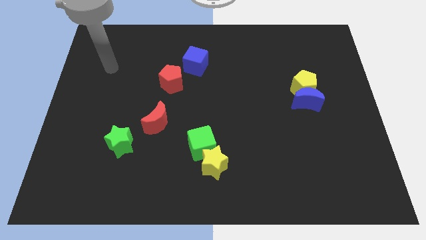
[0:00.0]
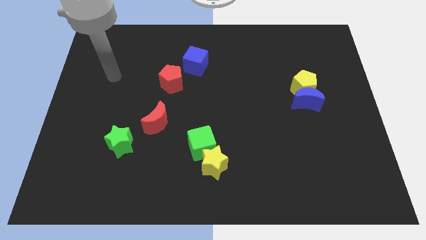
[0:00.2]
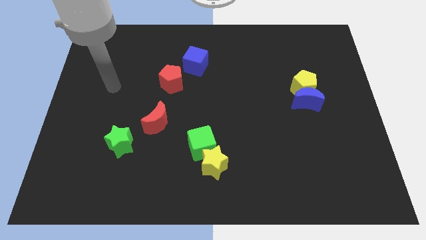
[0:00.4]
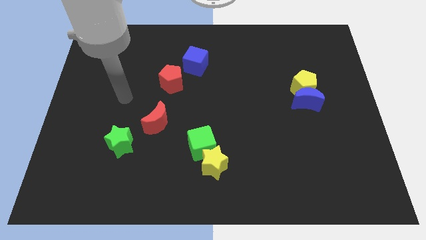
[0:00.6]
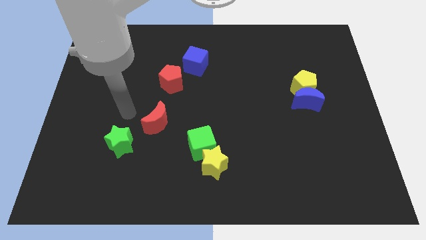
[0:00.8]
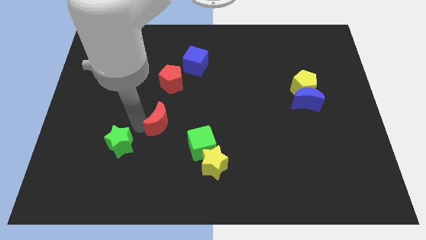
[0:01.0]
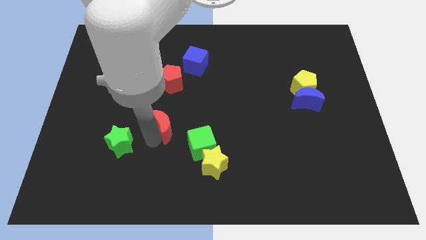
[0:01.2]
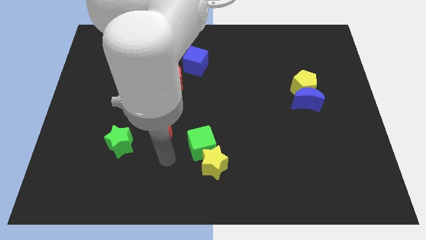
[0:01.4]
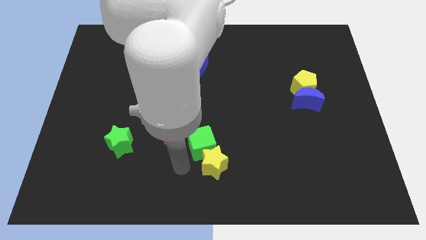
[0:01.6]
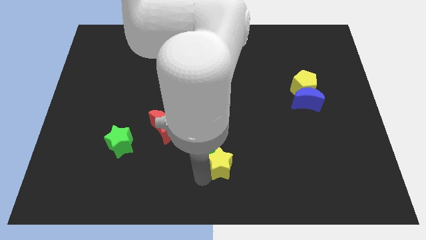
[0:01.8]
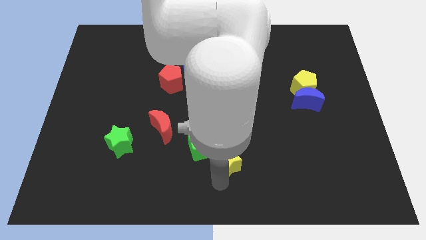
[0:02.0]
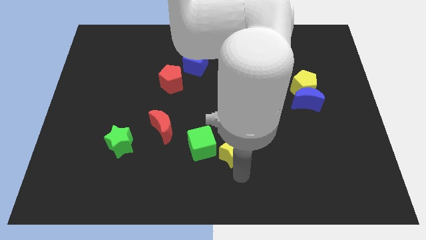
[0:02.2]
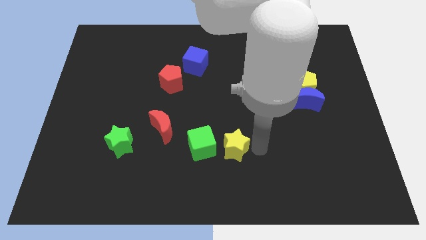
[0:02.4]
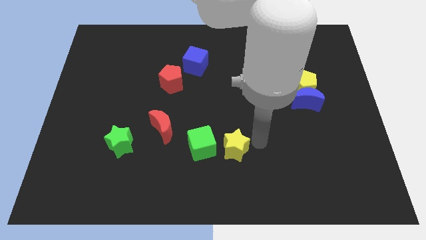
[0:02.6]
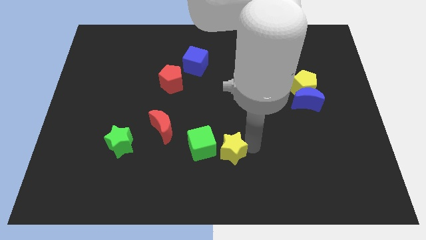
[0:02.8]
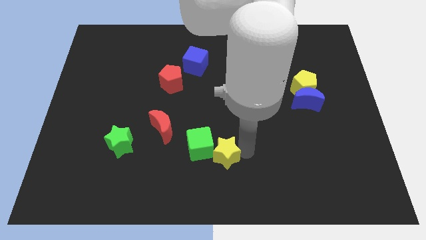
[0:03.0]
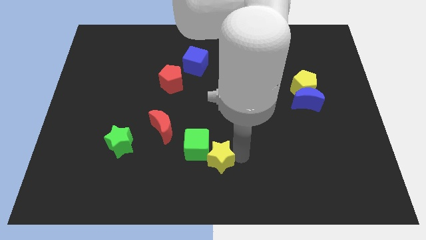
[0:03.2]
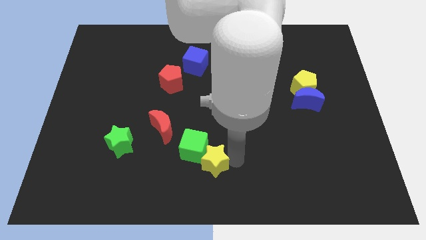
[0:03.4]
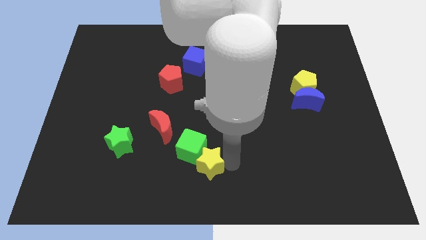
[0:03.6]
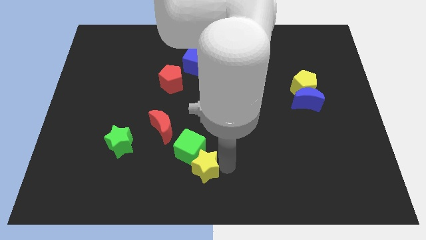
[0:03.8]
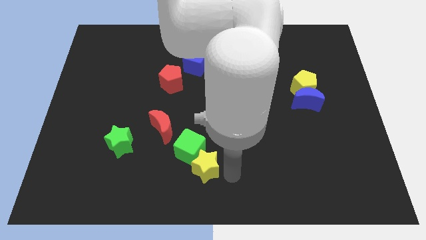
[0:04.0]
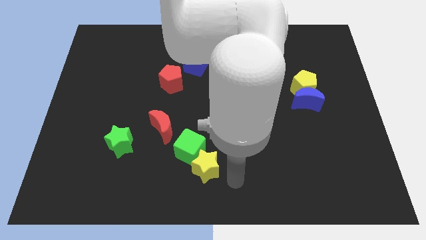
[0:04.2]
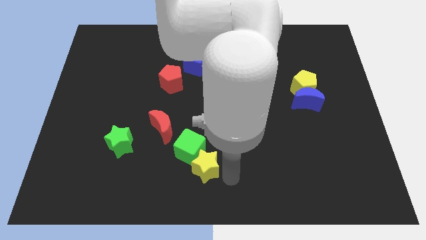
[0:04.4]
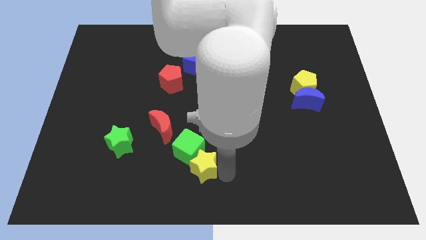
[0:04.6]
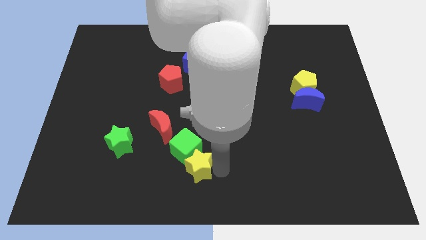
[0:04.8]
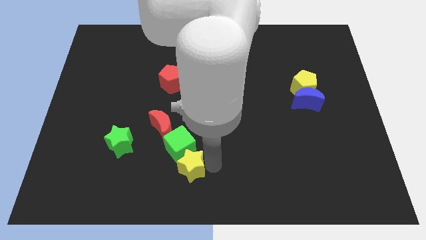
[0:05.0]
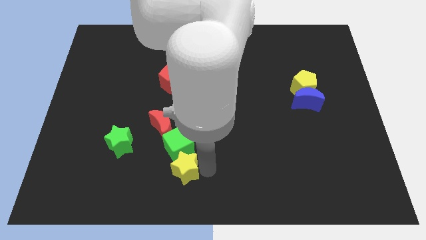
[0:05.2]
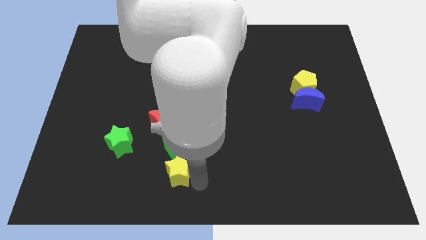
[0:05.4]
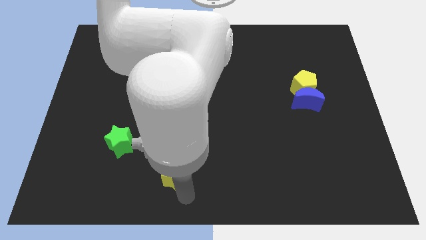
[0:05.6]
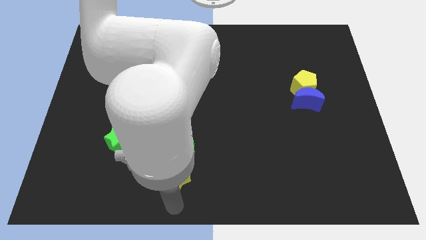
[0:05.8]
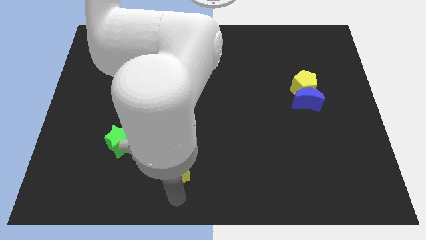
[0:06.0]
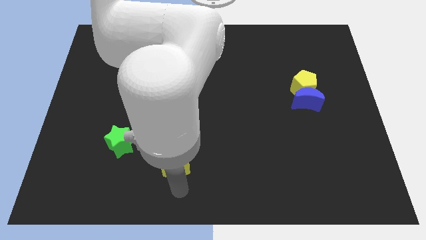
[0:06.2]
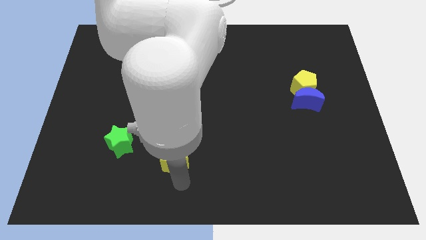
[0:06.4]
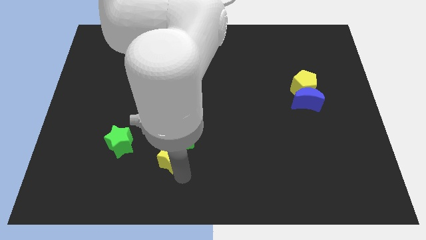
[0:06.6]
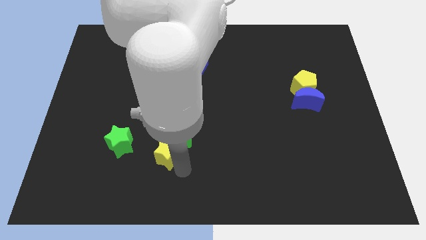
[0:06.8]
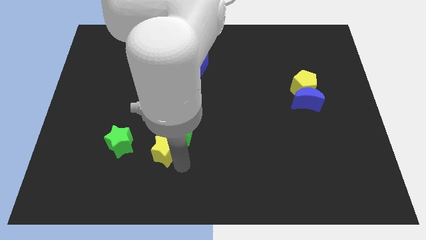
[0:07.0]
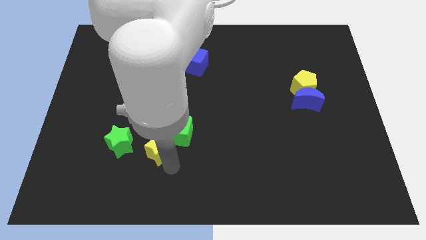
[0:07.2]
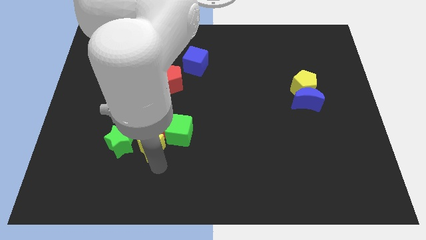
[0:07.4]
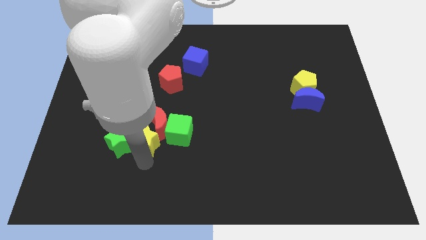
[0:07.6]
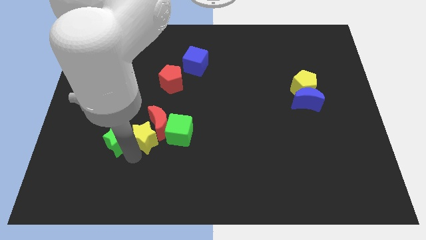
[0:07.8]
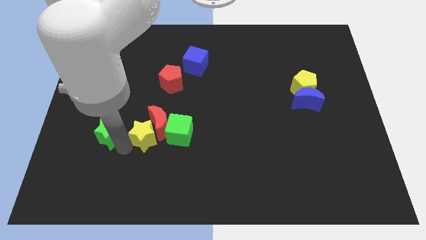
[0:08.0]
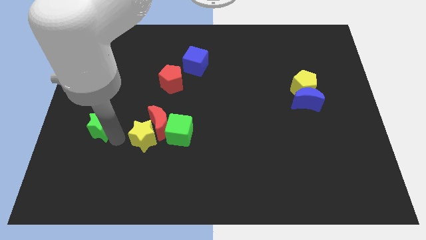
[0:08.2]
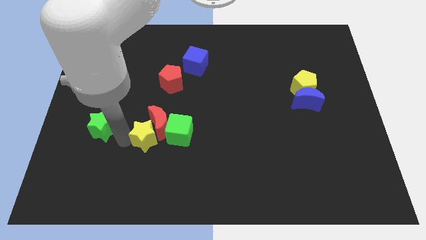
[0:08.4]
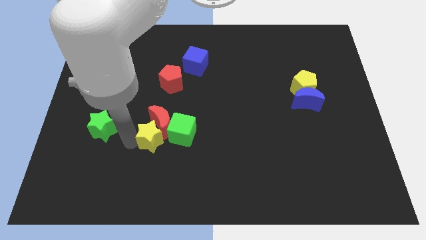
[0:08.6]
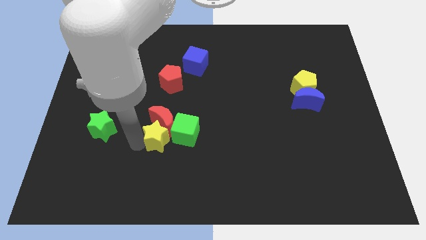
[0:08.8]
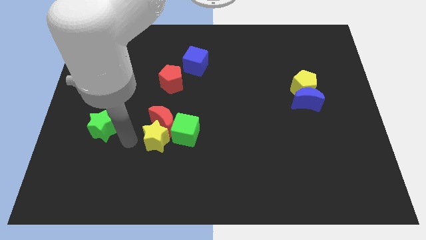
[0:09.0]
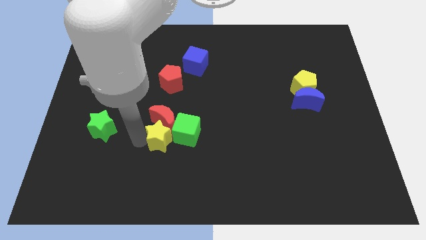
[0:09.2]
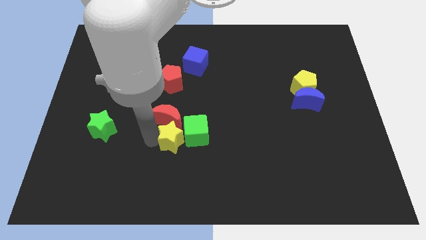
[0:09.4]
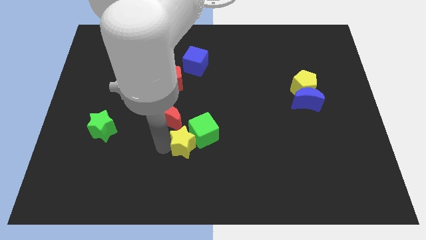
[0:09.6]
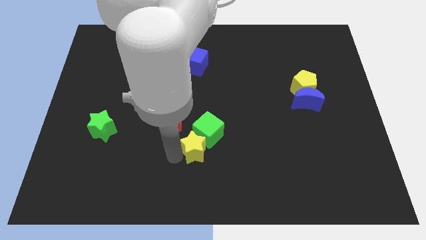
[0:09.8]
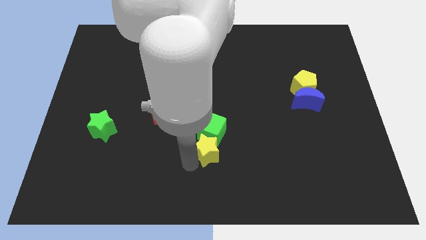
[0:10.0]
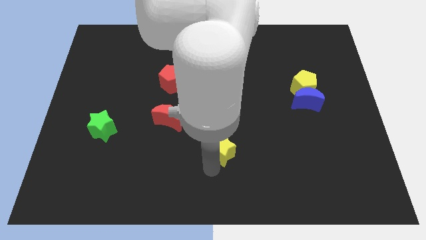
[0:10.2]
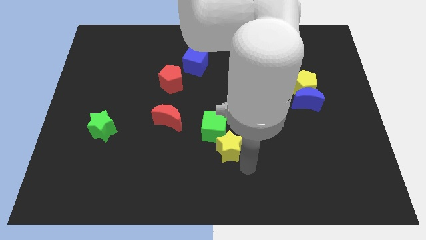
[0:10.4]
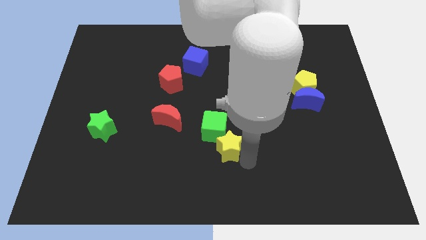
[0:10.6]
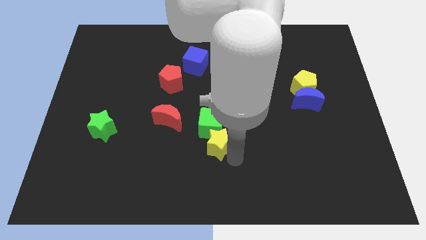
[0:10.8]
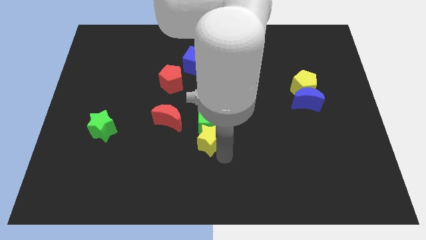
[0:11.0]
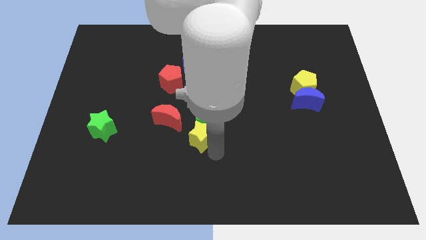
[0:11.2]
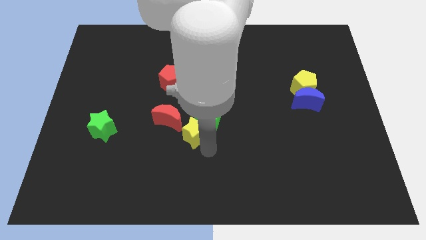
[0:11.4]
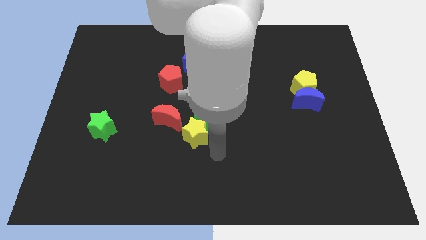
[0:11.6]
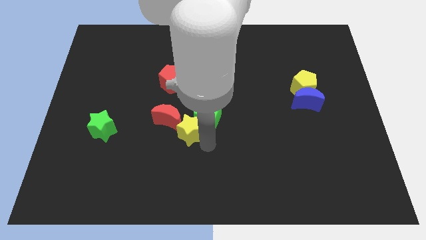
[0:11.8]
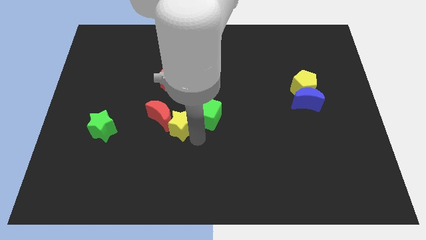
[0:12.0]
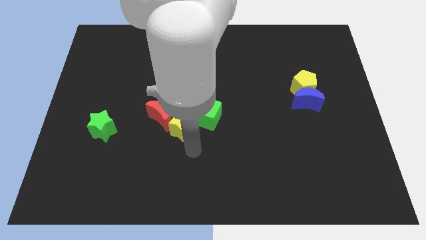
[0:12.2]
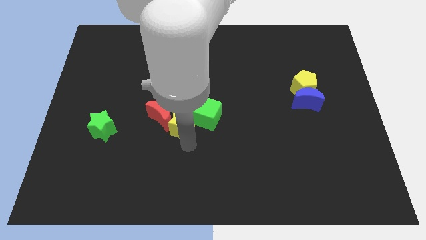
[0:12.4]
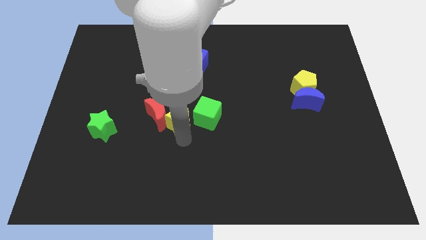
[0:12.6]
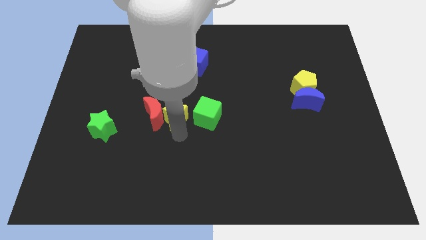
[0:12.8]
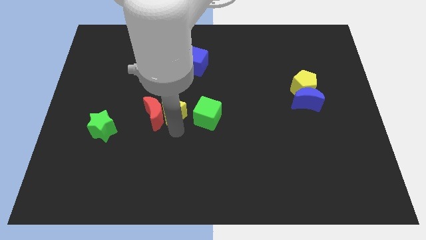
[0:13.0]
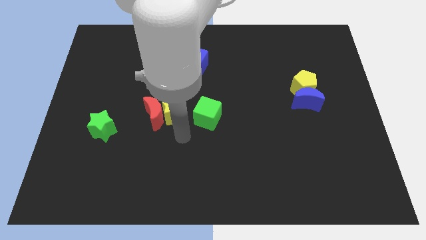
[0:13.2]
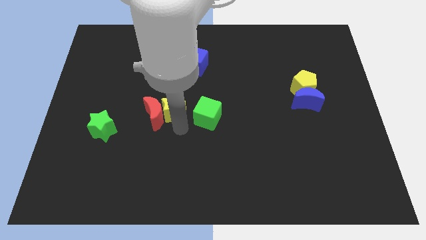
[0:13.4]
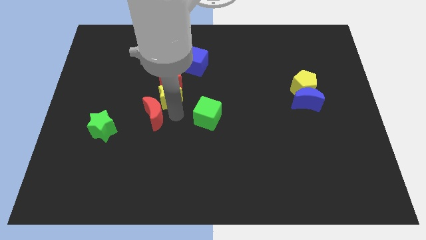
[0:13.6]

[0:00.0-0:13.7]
slide the yellow star towards the red pentagon

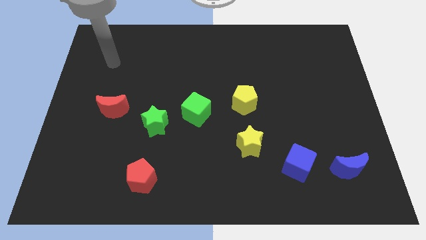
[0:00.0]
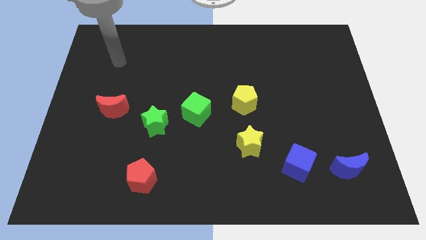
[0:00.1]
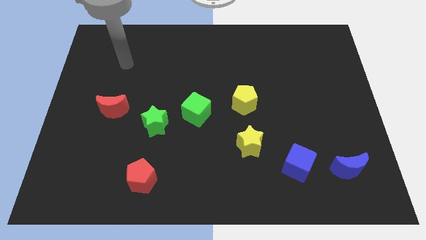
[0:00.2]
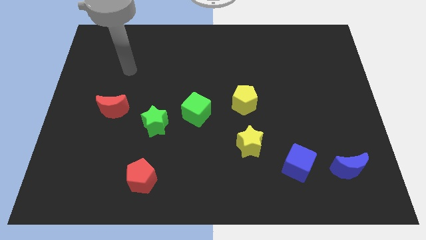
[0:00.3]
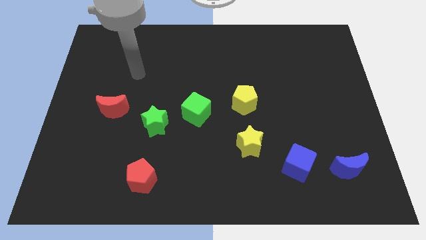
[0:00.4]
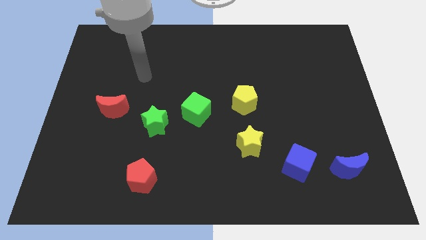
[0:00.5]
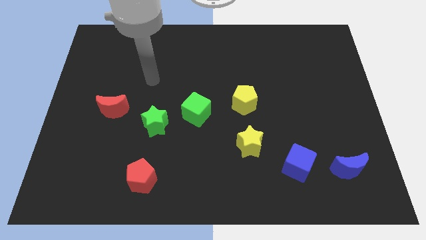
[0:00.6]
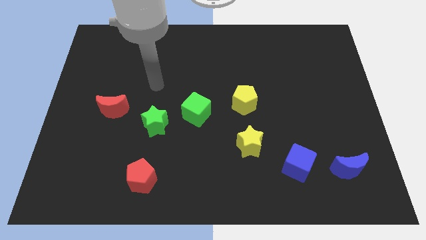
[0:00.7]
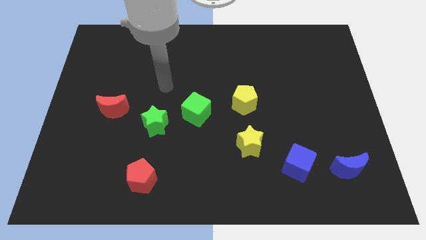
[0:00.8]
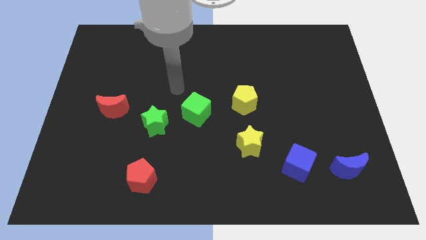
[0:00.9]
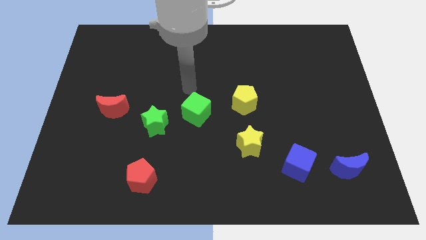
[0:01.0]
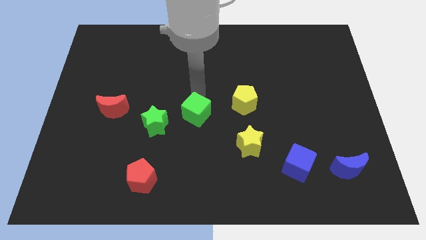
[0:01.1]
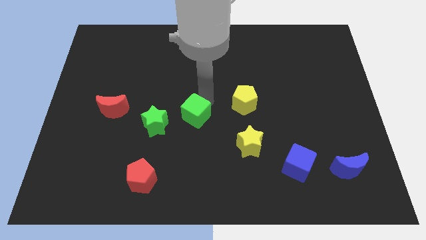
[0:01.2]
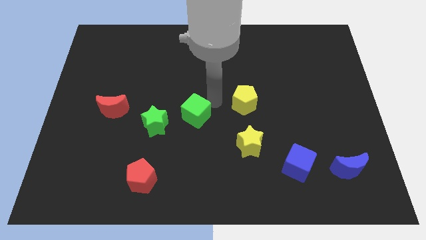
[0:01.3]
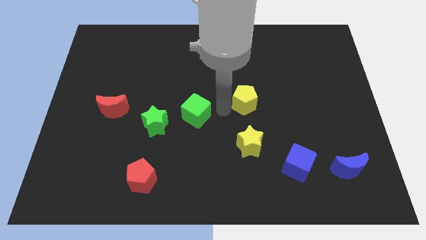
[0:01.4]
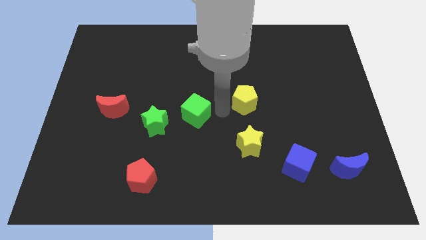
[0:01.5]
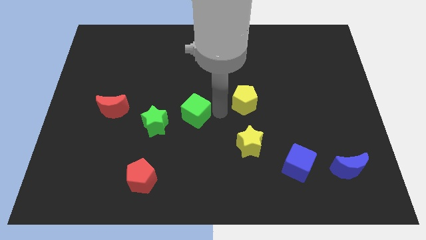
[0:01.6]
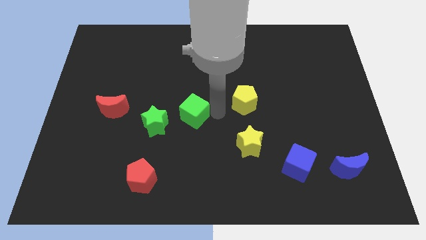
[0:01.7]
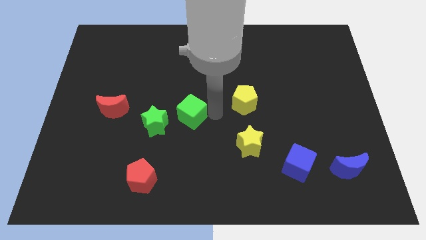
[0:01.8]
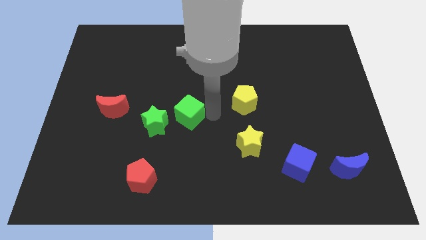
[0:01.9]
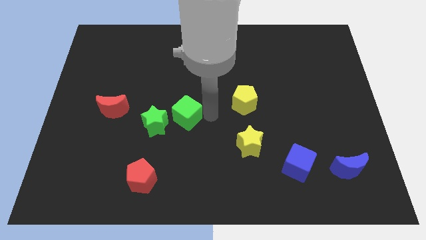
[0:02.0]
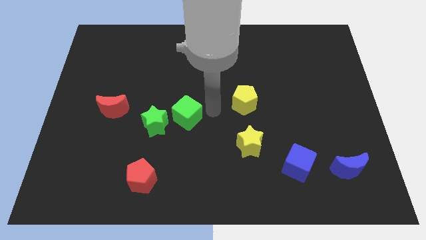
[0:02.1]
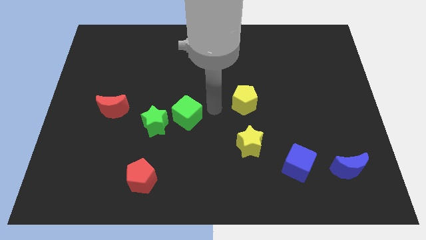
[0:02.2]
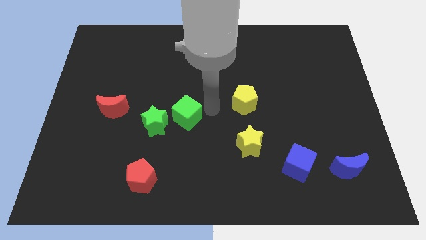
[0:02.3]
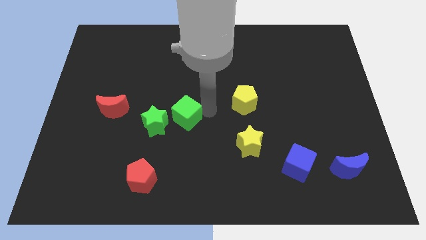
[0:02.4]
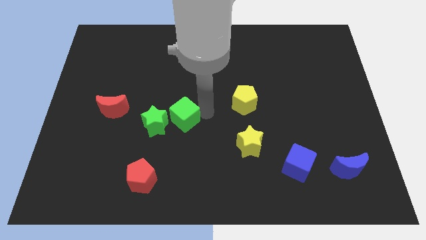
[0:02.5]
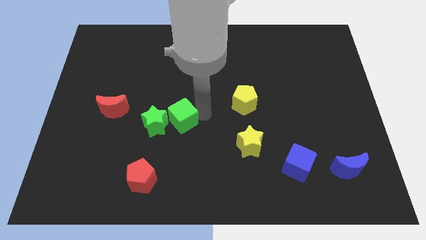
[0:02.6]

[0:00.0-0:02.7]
put the green cube towards the green star
